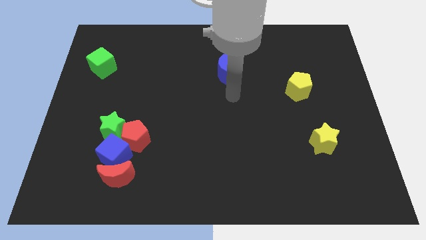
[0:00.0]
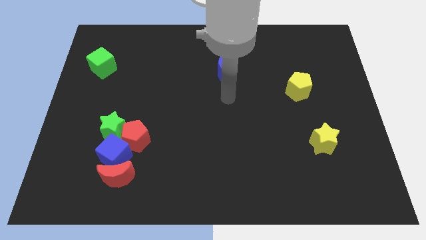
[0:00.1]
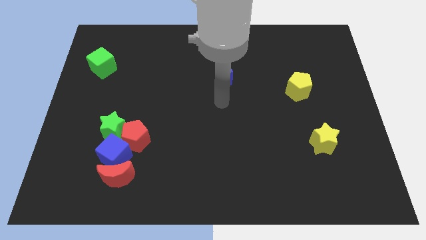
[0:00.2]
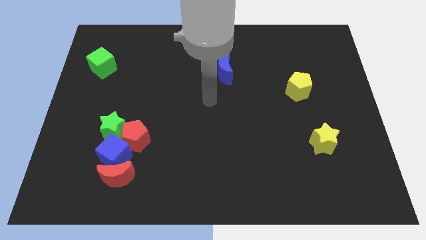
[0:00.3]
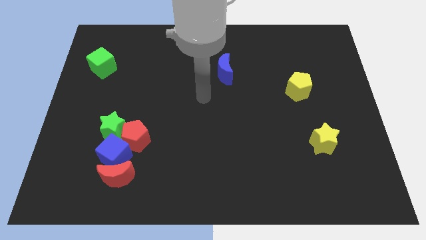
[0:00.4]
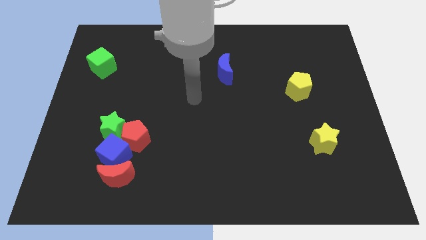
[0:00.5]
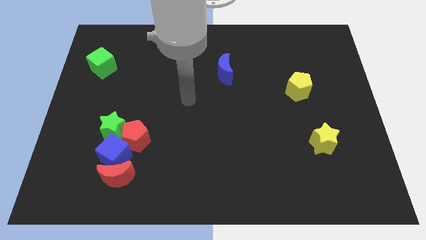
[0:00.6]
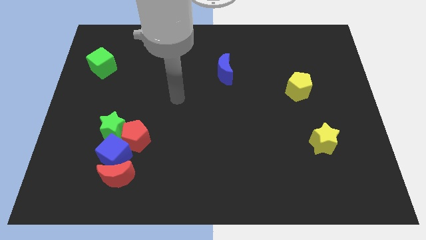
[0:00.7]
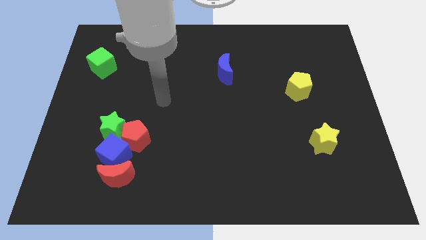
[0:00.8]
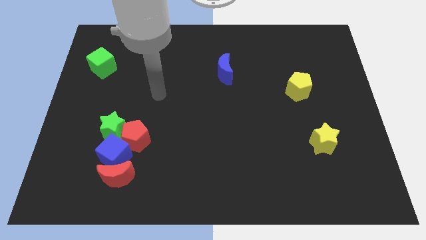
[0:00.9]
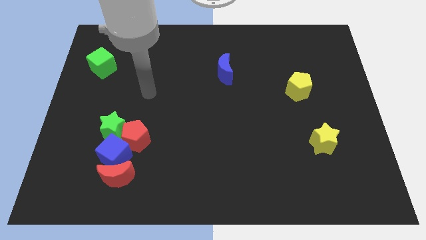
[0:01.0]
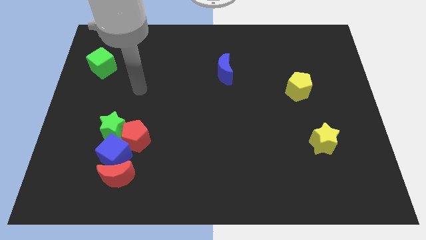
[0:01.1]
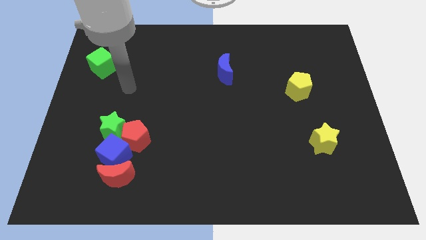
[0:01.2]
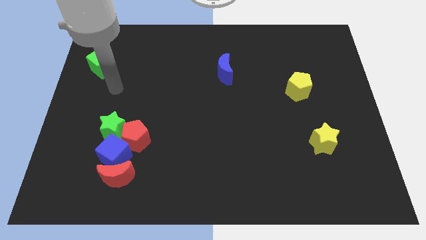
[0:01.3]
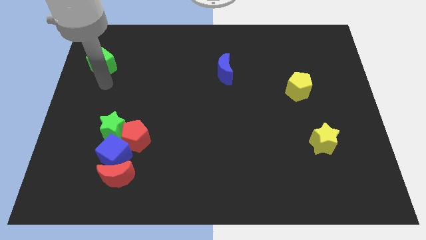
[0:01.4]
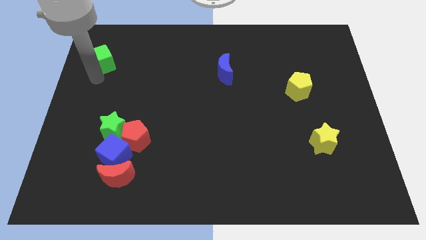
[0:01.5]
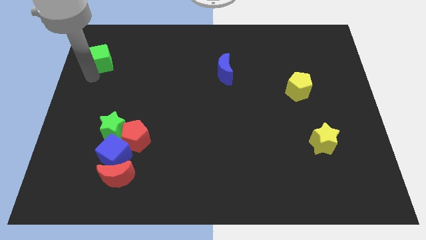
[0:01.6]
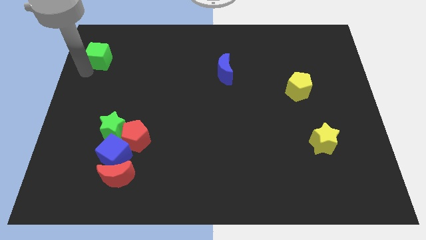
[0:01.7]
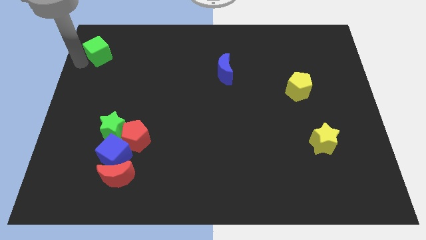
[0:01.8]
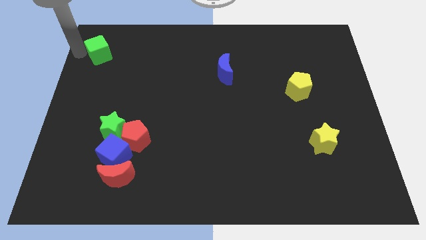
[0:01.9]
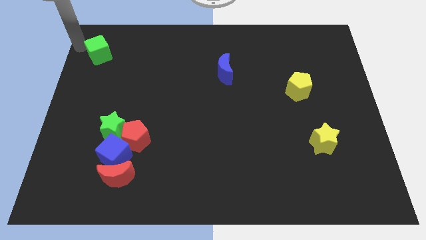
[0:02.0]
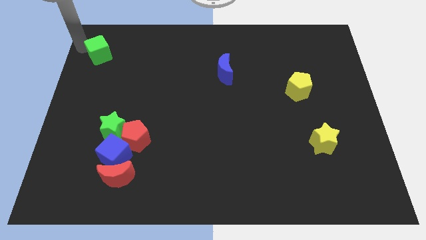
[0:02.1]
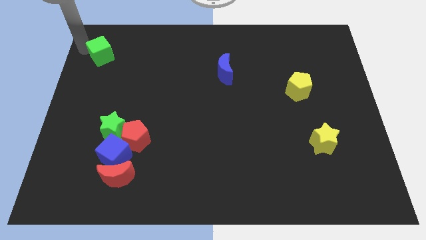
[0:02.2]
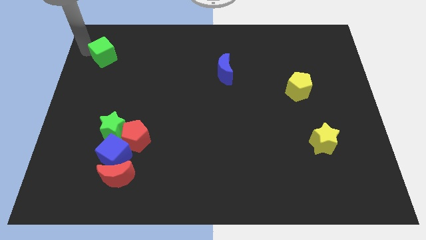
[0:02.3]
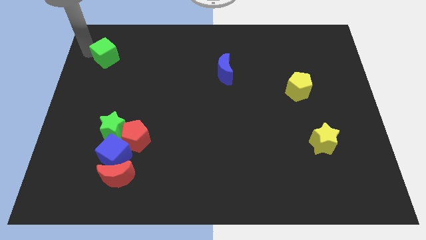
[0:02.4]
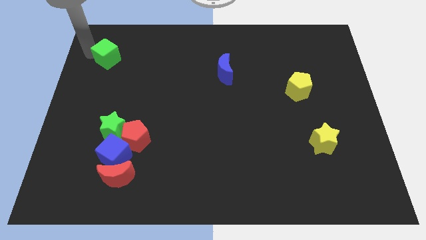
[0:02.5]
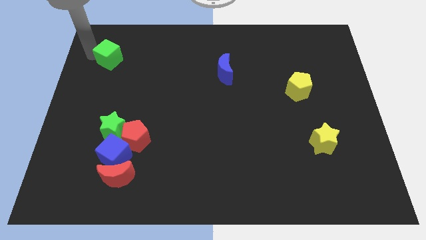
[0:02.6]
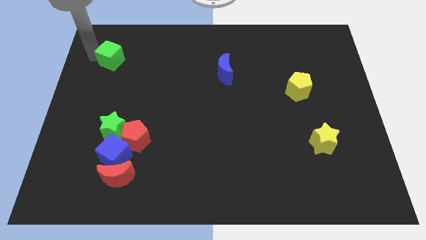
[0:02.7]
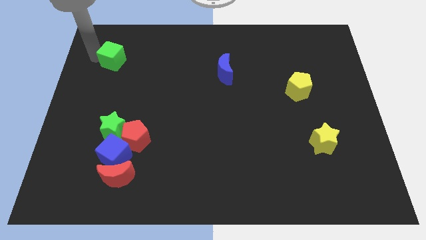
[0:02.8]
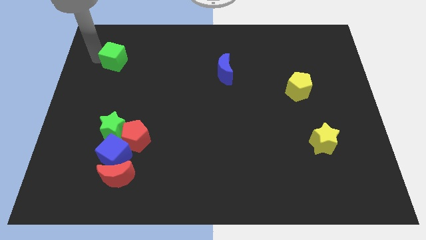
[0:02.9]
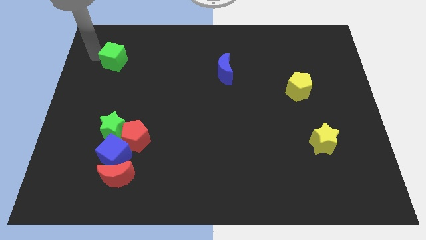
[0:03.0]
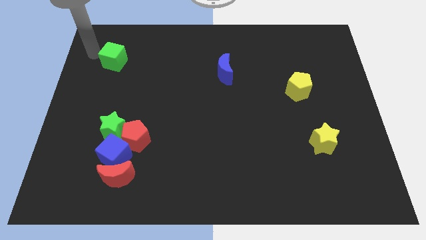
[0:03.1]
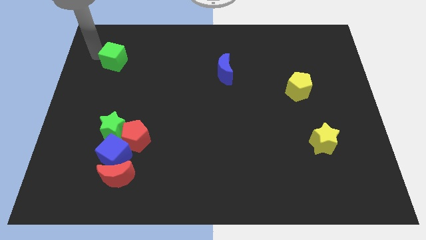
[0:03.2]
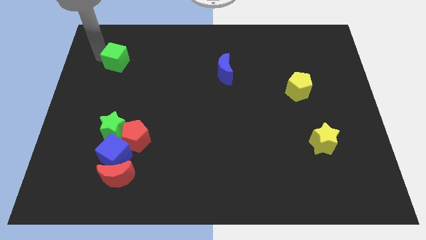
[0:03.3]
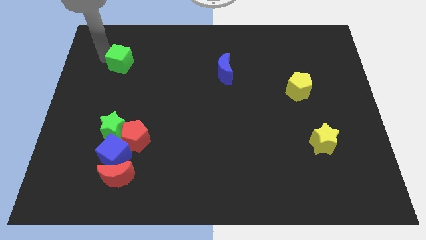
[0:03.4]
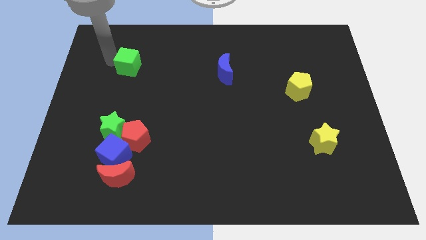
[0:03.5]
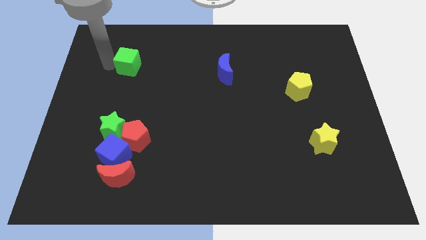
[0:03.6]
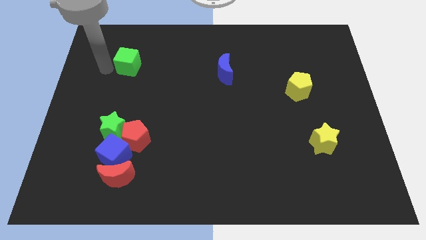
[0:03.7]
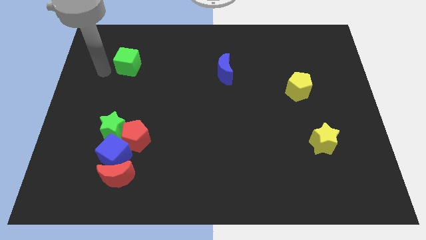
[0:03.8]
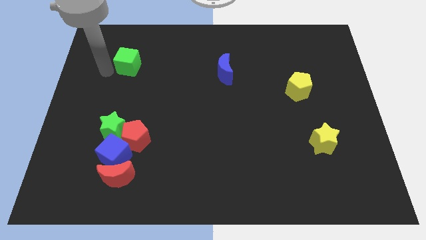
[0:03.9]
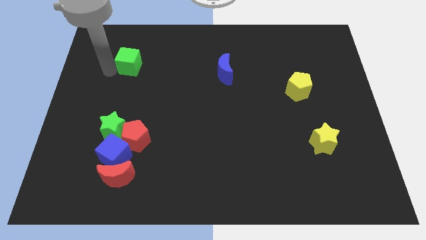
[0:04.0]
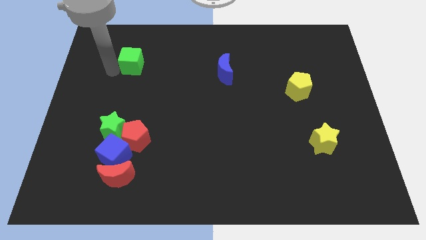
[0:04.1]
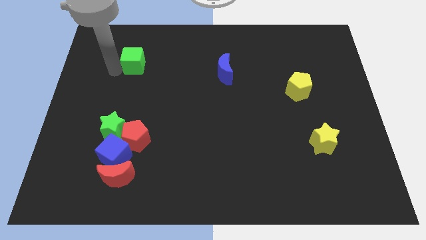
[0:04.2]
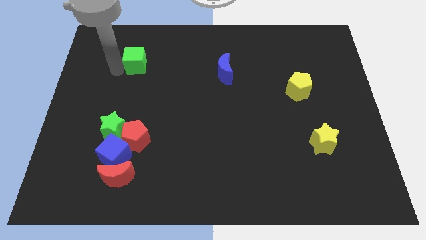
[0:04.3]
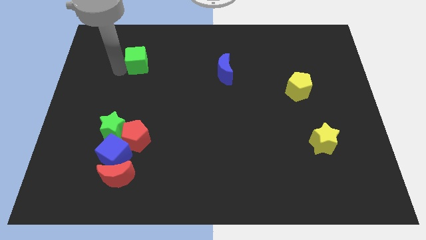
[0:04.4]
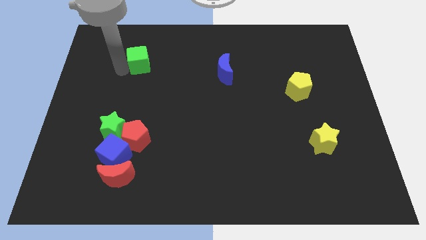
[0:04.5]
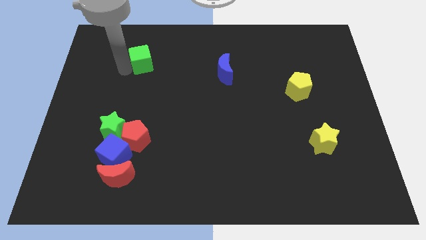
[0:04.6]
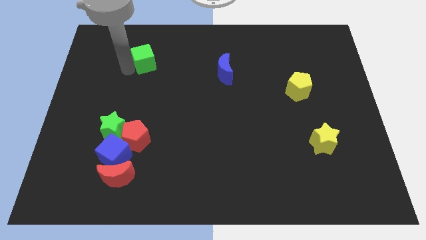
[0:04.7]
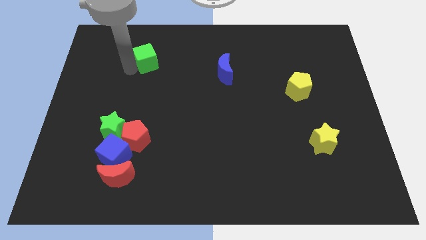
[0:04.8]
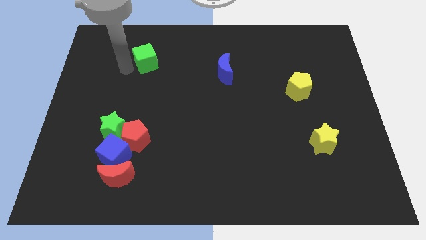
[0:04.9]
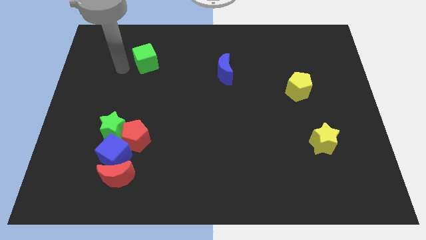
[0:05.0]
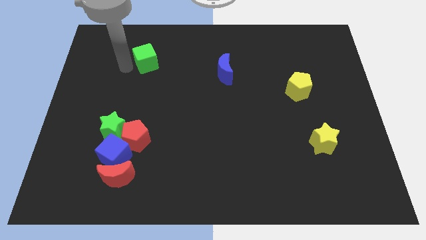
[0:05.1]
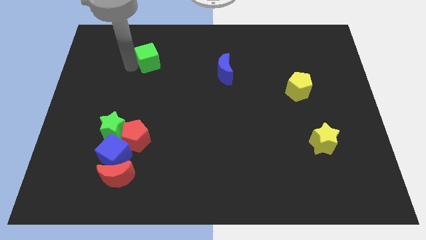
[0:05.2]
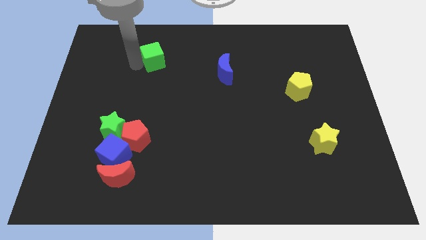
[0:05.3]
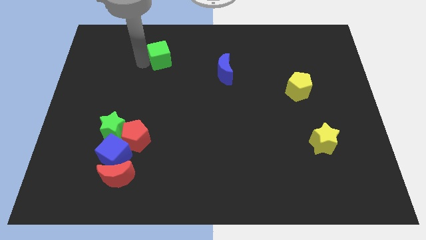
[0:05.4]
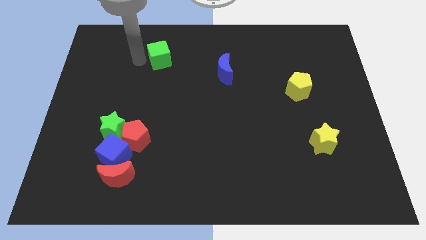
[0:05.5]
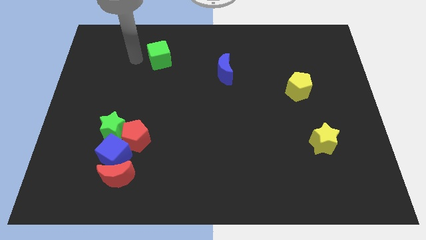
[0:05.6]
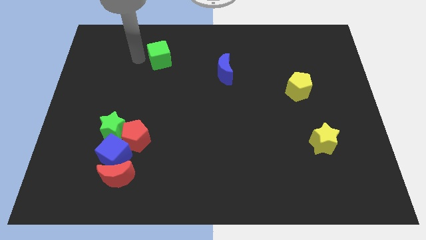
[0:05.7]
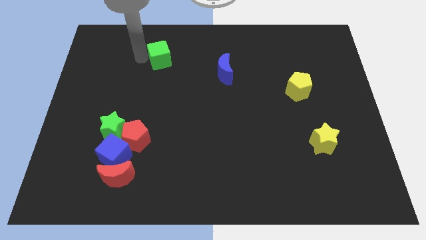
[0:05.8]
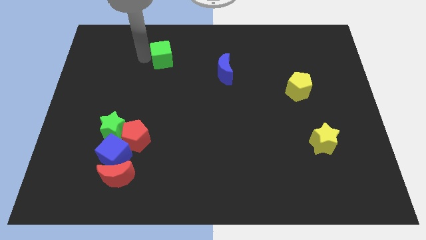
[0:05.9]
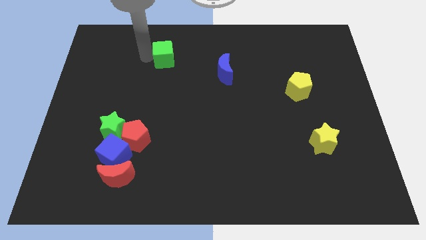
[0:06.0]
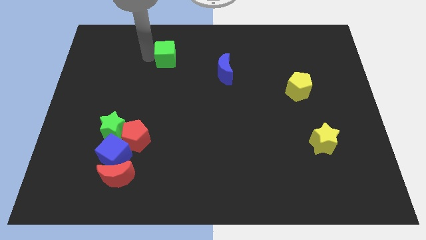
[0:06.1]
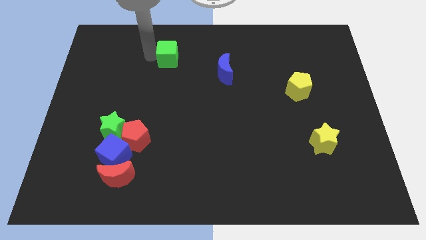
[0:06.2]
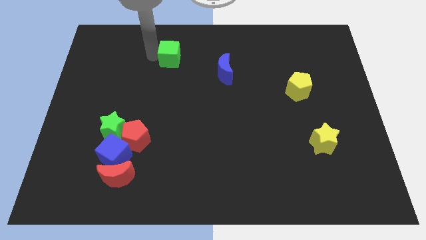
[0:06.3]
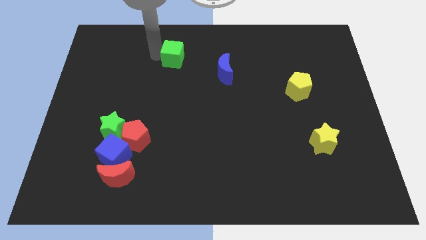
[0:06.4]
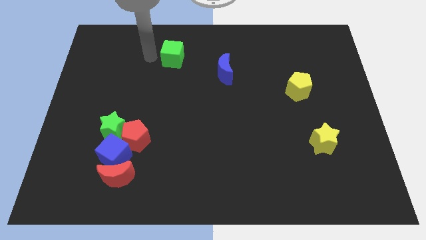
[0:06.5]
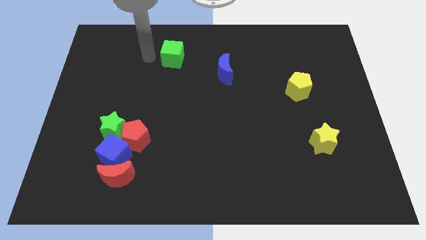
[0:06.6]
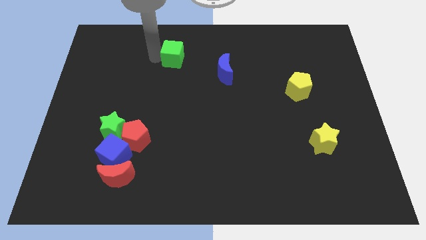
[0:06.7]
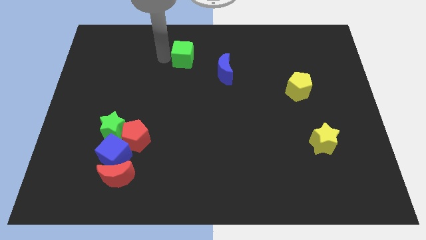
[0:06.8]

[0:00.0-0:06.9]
put the green cube to the top left side of the blue moon
